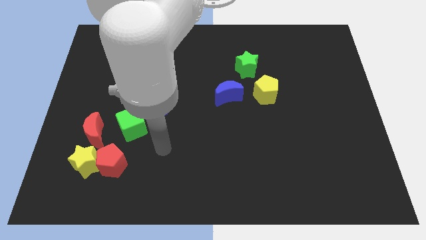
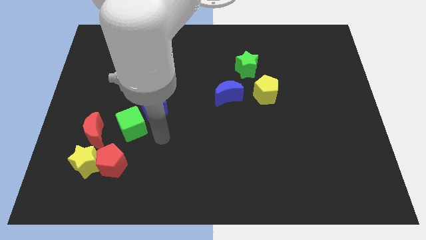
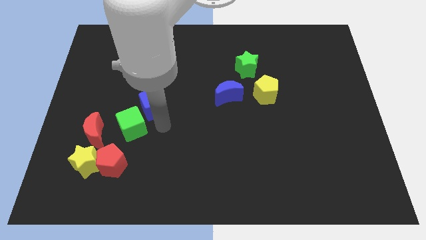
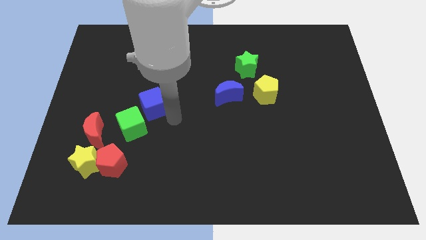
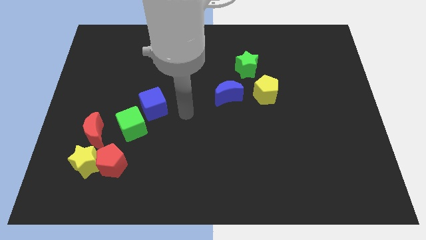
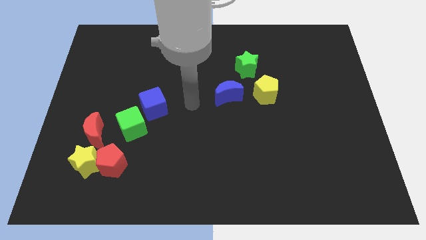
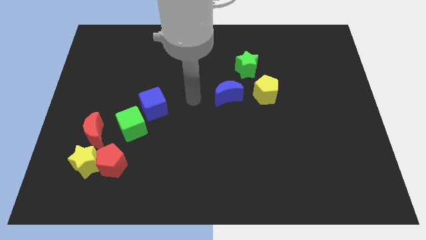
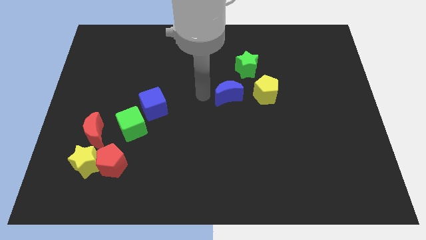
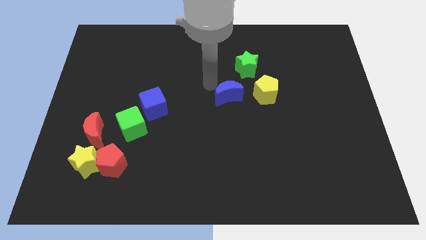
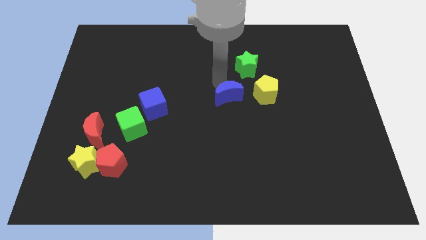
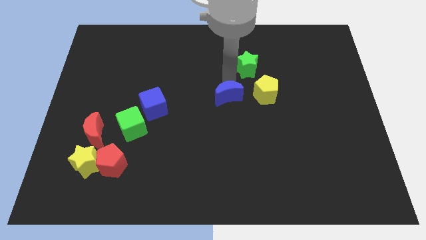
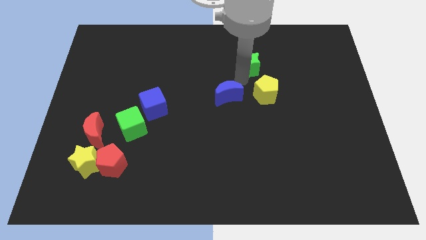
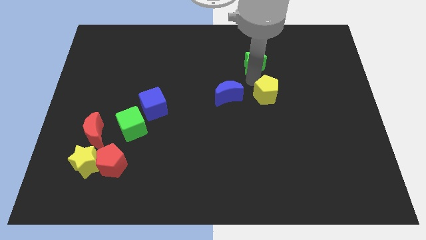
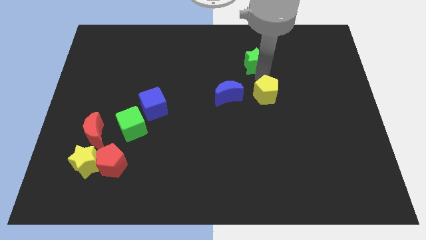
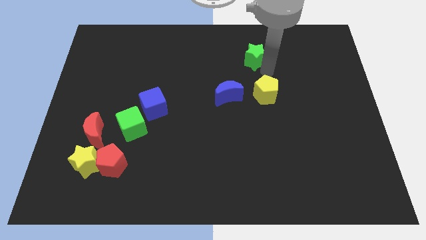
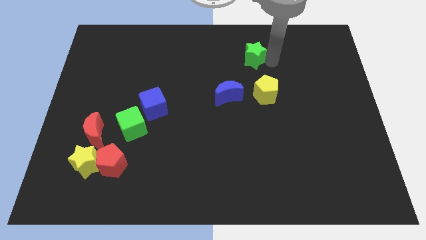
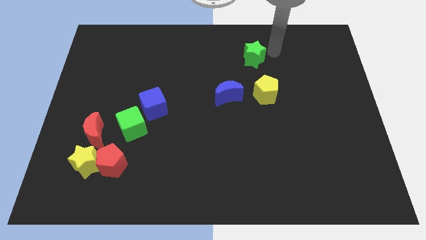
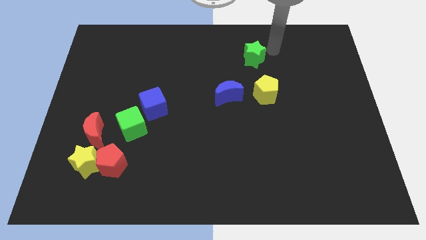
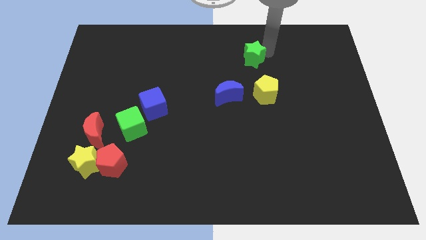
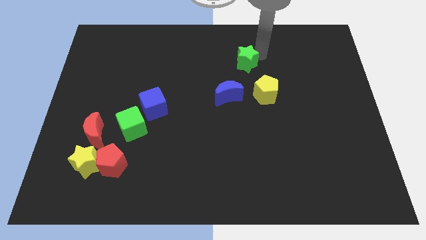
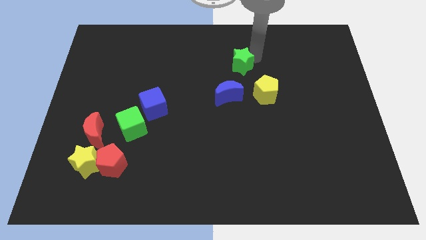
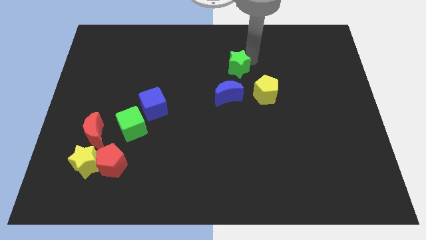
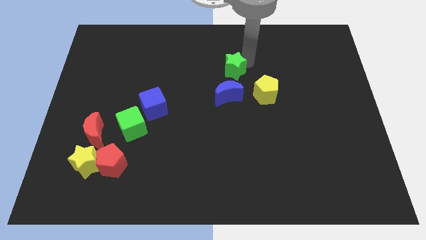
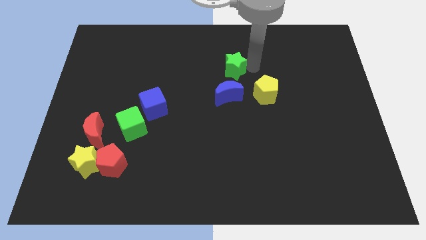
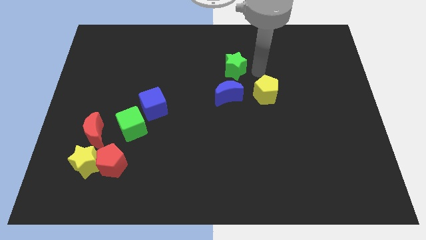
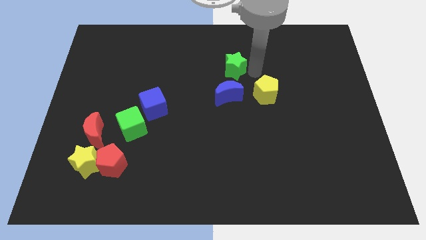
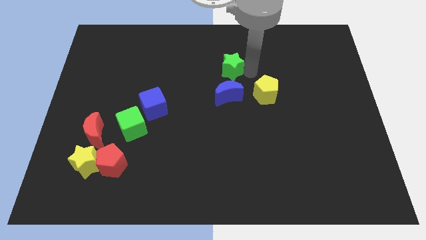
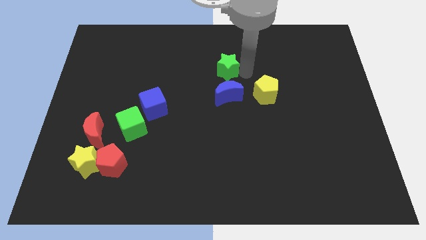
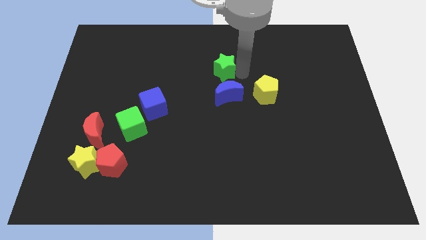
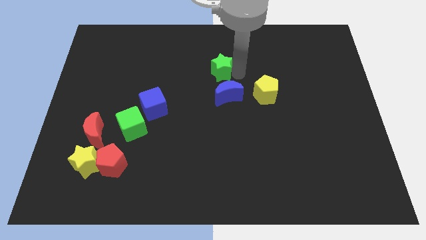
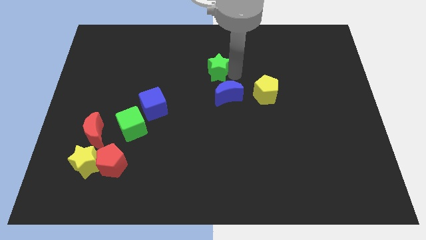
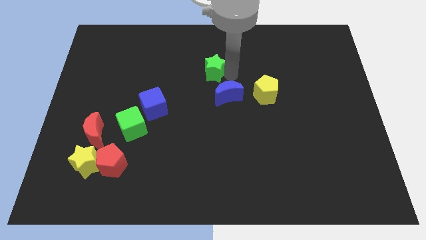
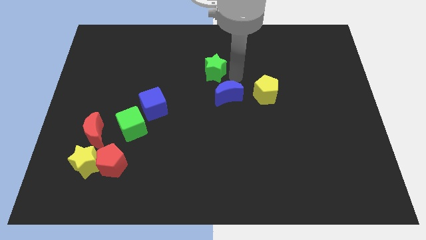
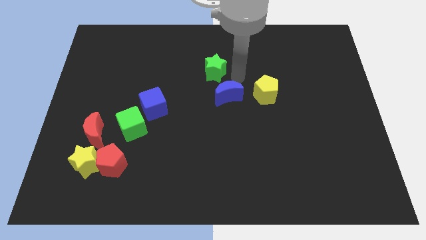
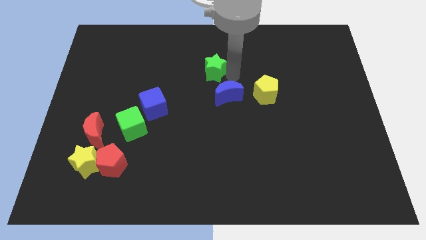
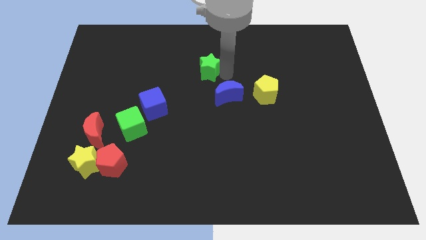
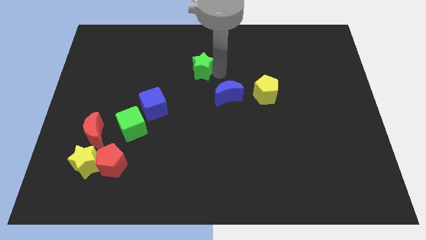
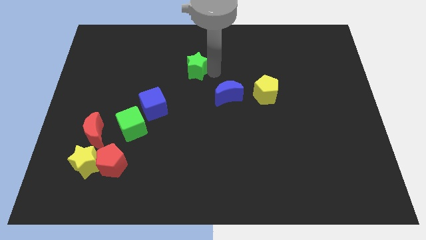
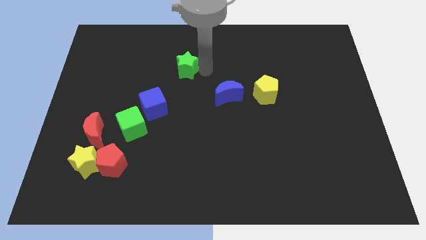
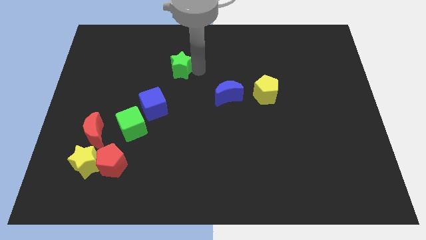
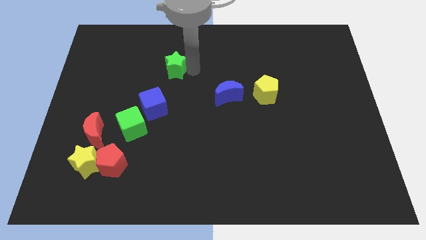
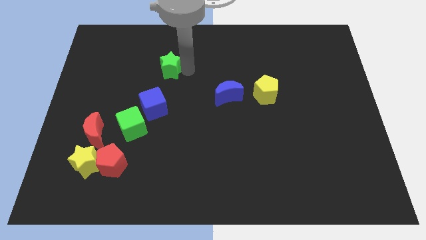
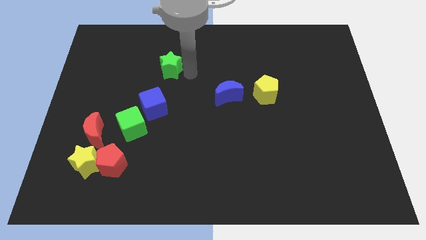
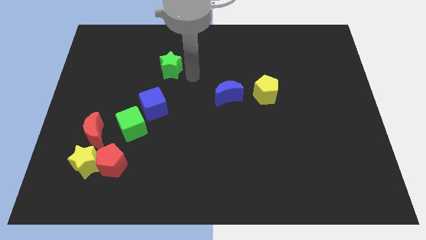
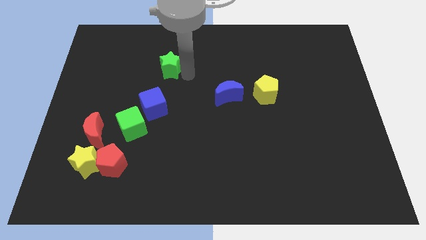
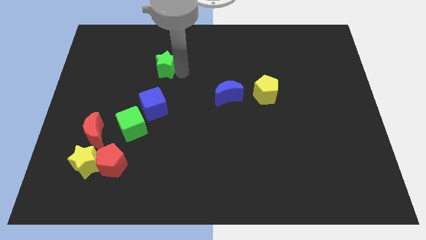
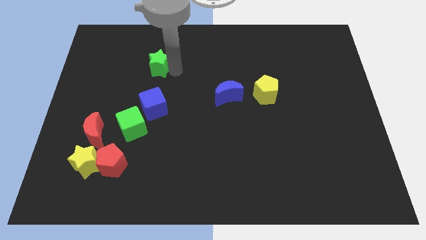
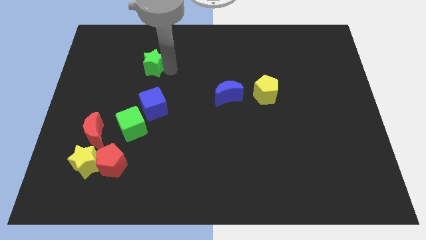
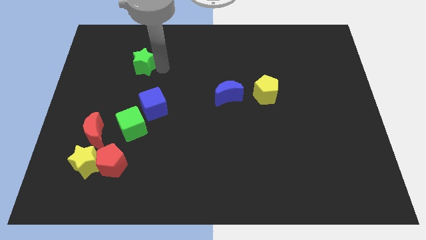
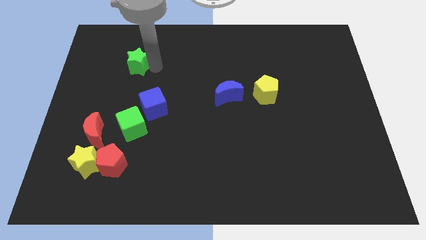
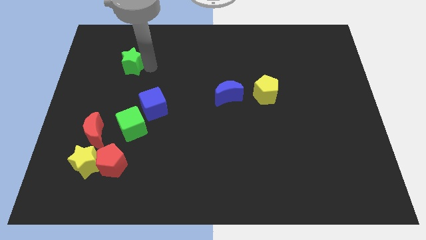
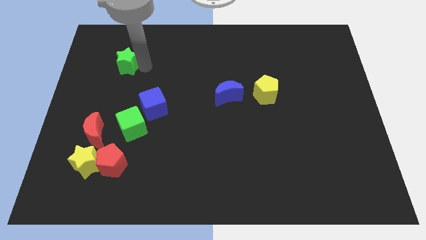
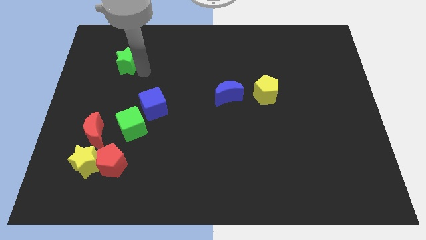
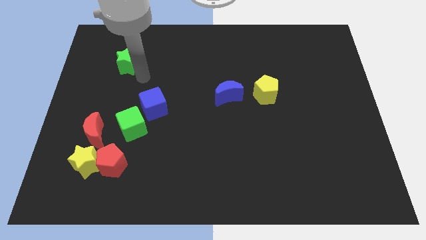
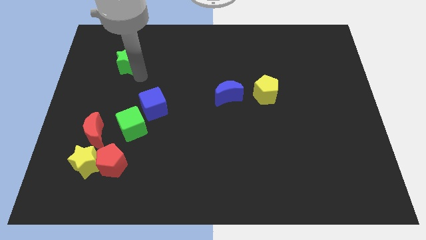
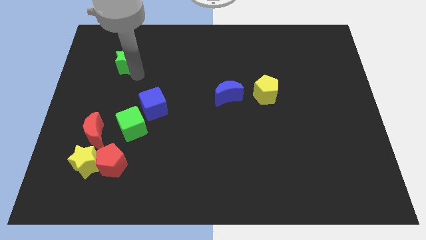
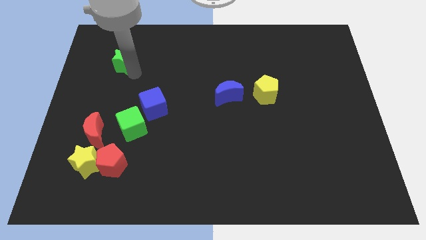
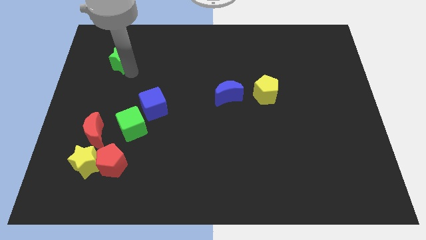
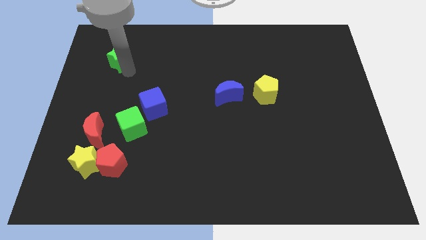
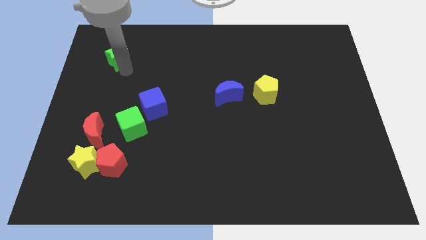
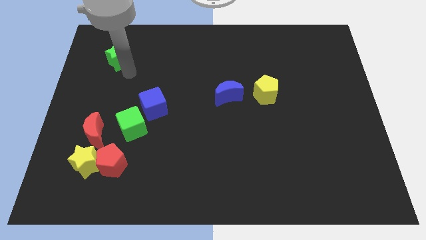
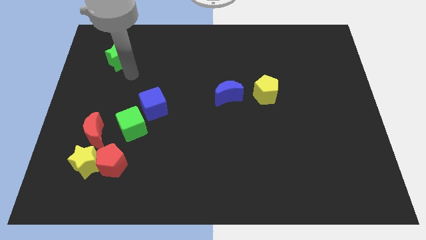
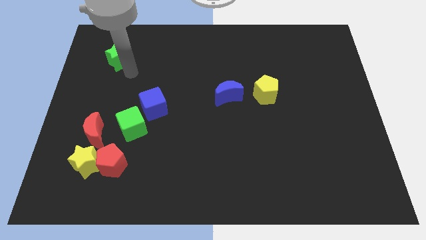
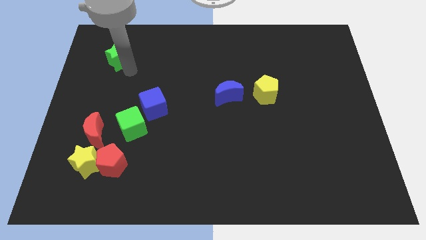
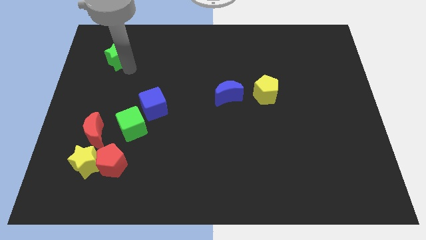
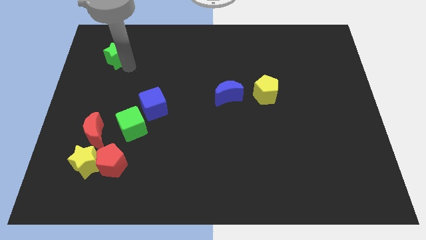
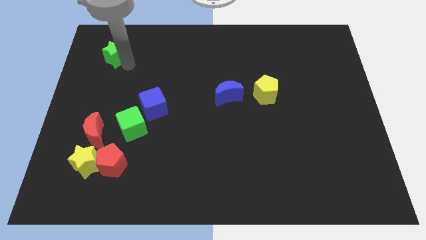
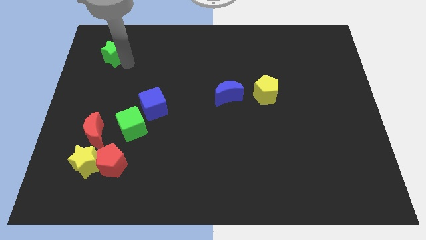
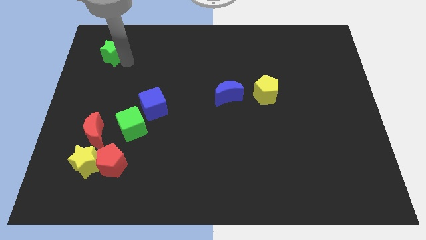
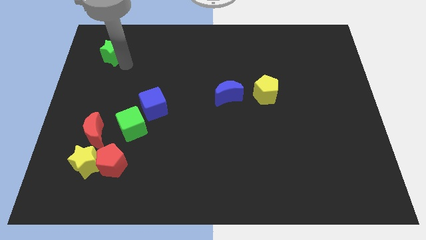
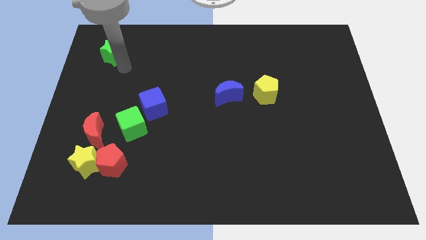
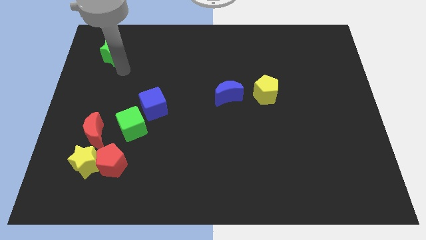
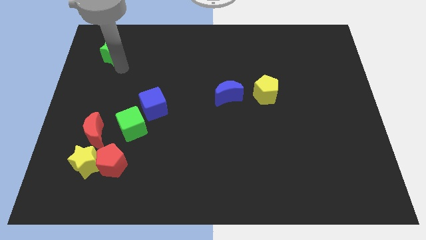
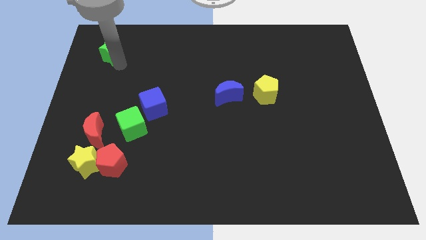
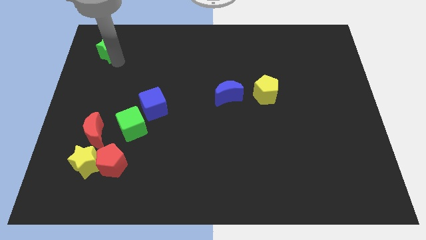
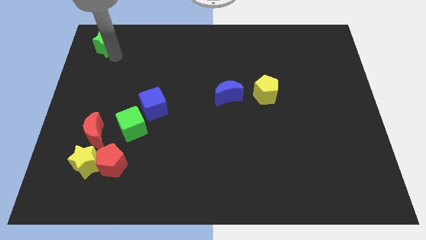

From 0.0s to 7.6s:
put the green star to the top left corner
